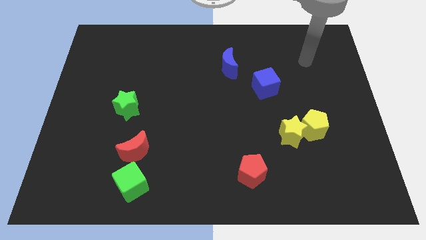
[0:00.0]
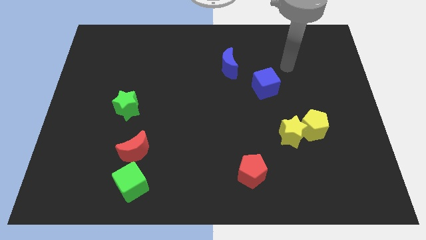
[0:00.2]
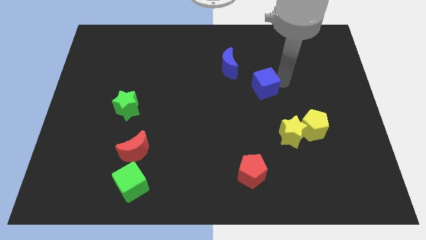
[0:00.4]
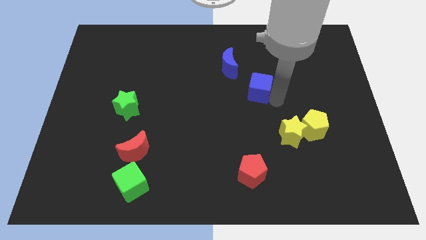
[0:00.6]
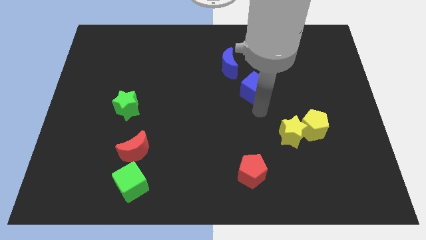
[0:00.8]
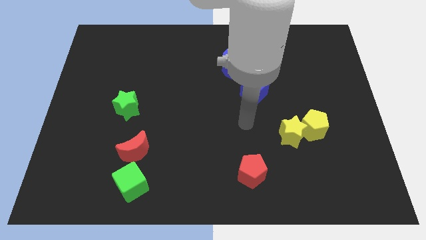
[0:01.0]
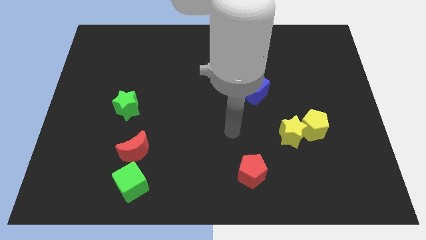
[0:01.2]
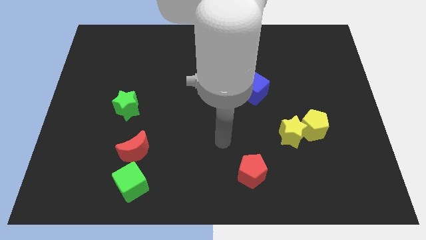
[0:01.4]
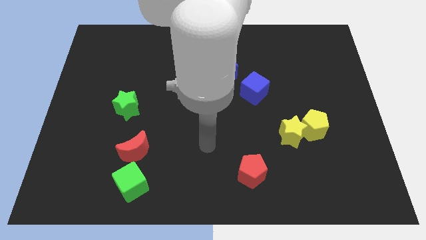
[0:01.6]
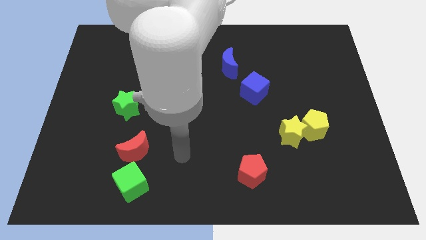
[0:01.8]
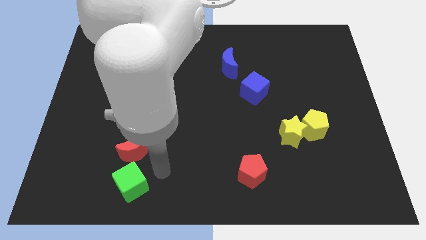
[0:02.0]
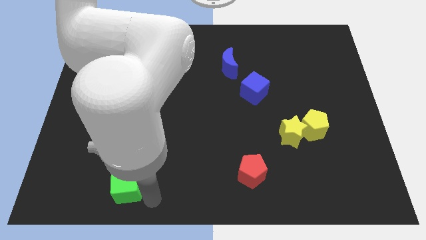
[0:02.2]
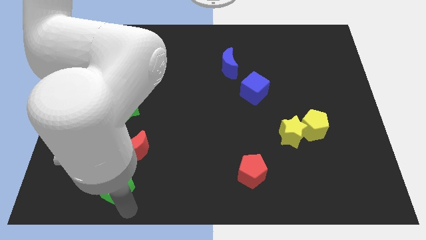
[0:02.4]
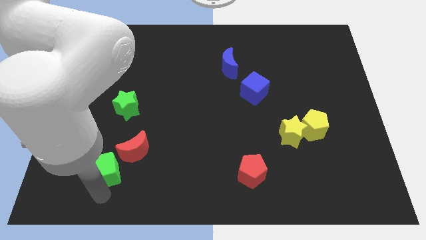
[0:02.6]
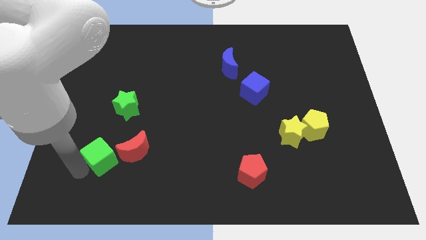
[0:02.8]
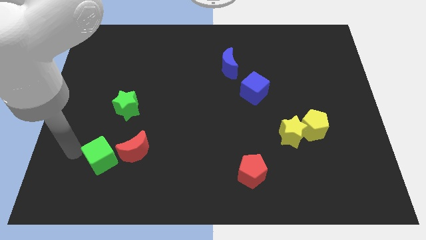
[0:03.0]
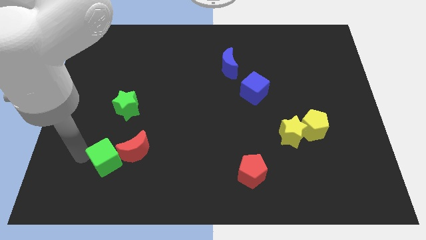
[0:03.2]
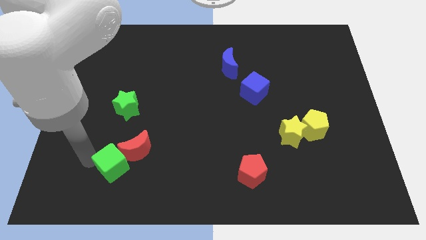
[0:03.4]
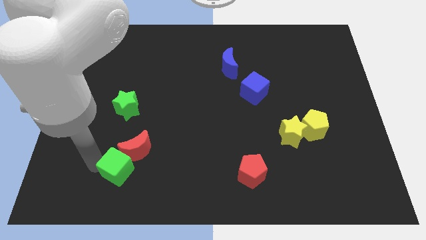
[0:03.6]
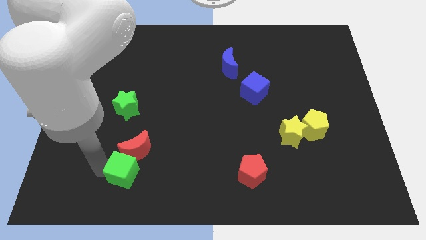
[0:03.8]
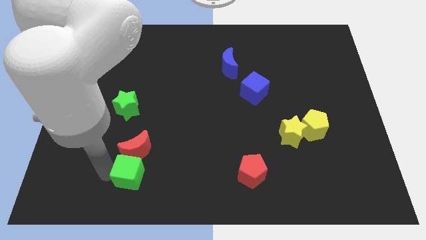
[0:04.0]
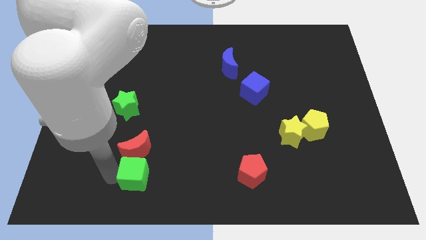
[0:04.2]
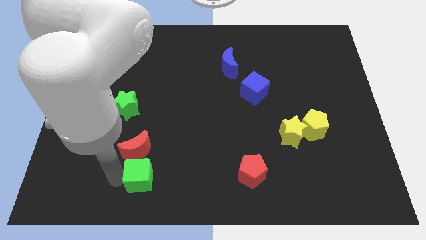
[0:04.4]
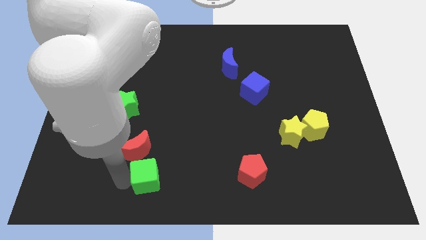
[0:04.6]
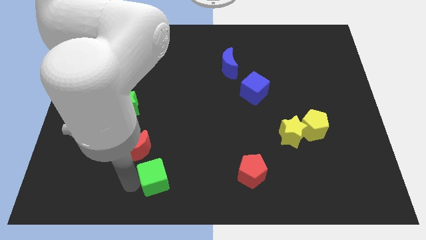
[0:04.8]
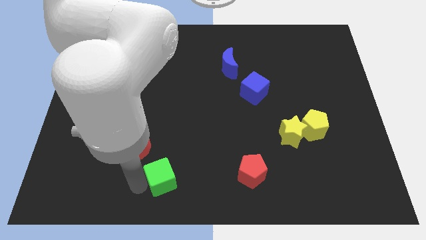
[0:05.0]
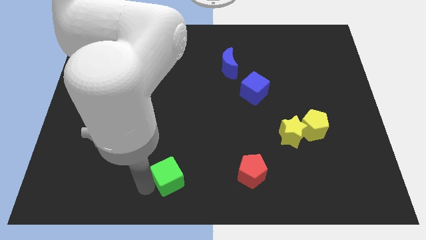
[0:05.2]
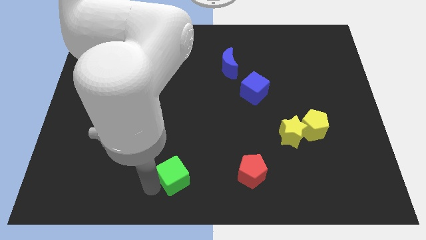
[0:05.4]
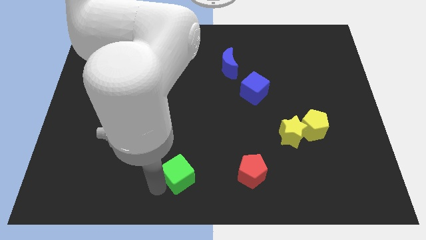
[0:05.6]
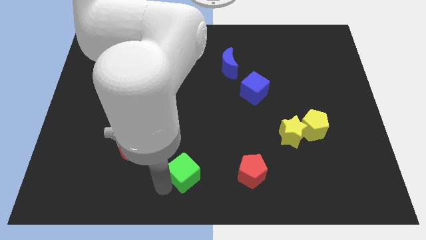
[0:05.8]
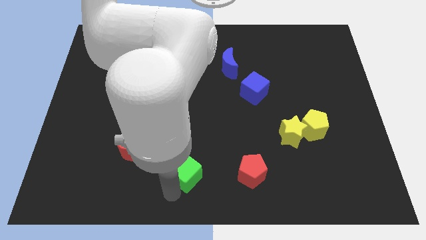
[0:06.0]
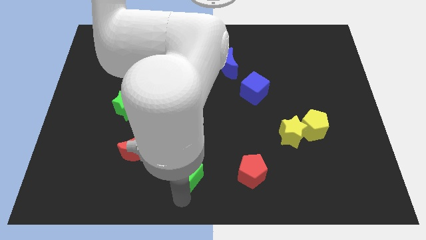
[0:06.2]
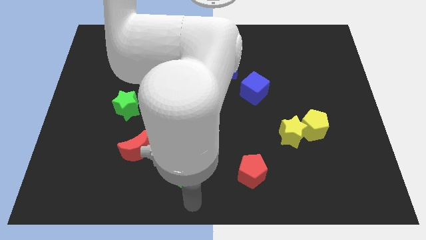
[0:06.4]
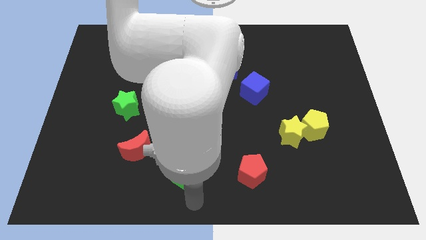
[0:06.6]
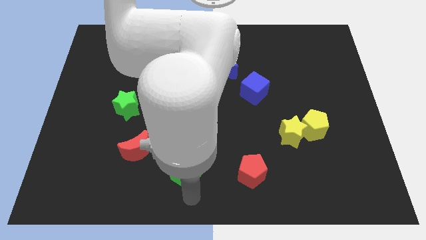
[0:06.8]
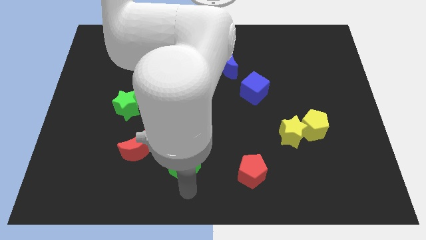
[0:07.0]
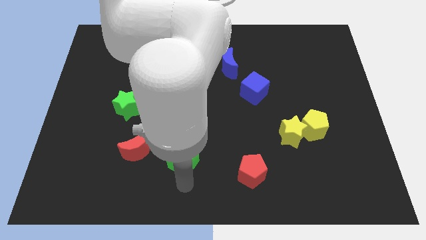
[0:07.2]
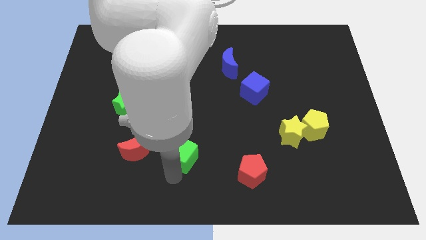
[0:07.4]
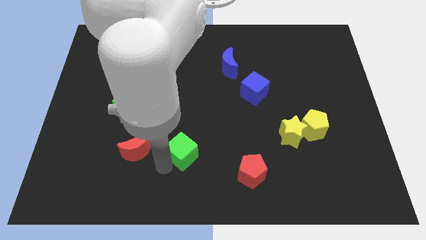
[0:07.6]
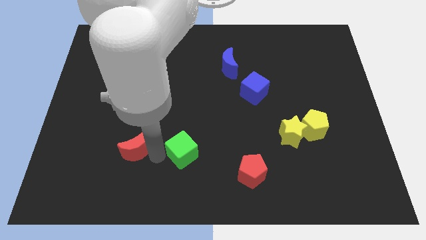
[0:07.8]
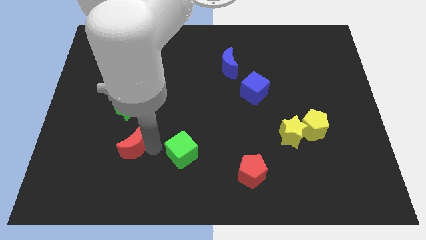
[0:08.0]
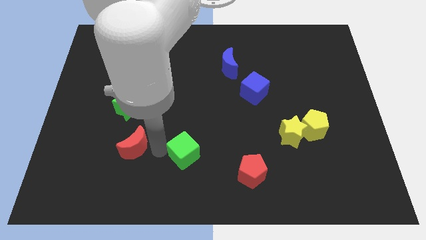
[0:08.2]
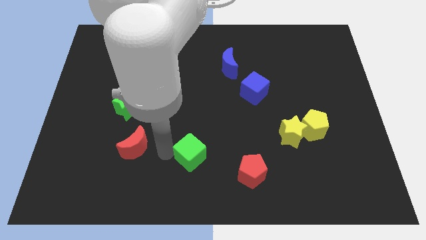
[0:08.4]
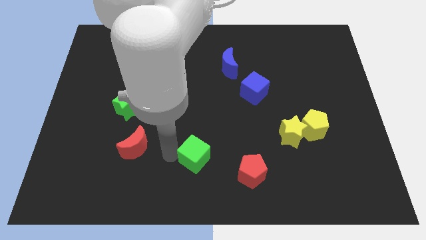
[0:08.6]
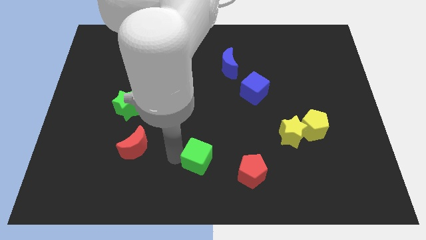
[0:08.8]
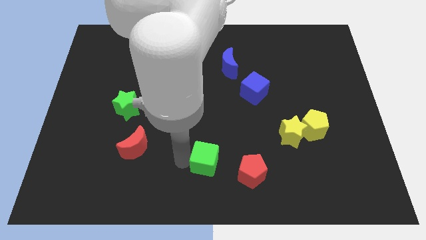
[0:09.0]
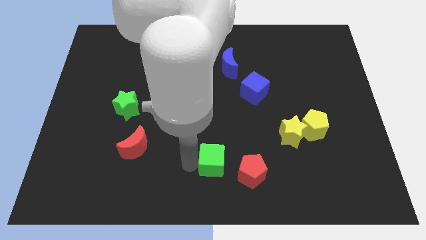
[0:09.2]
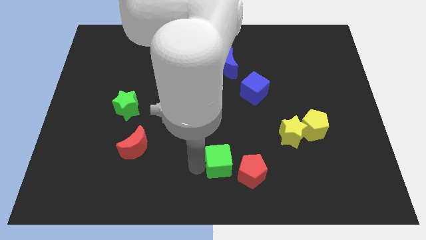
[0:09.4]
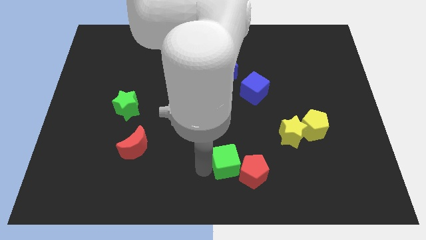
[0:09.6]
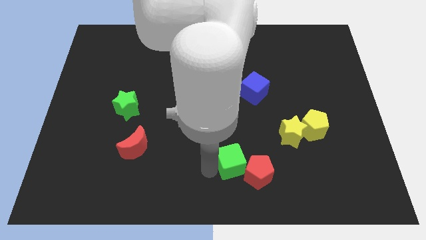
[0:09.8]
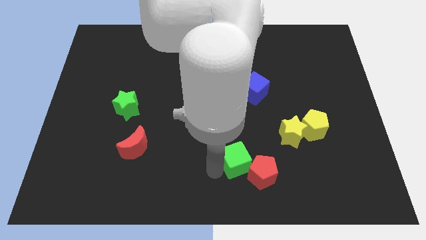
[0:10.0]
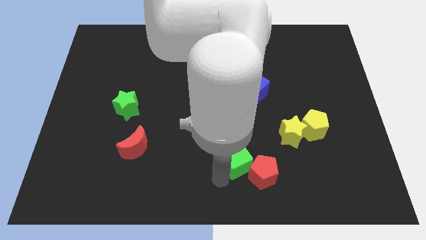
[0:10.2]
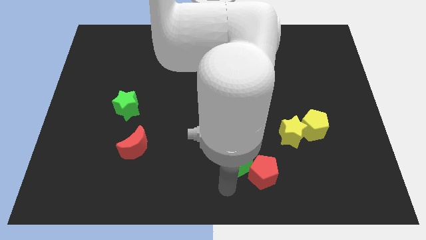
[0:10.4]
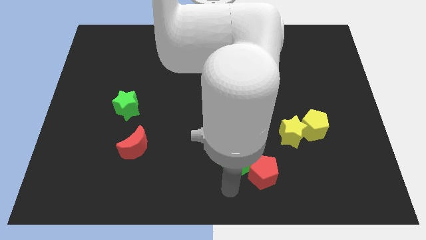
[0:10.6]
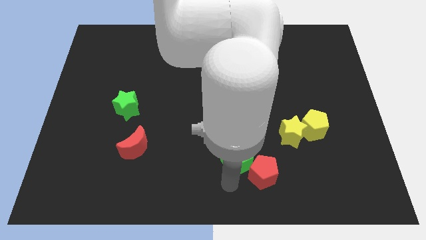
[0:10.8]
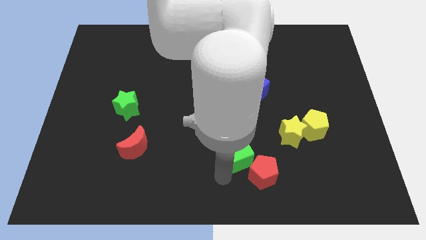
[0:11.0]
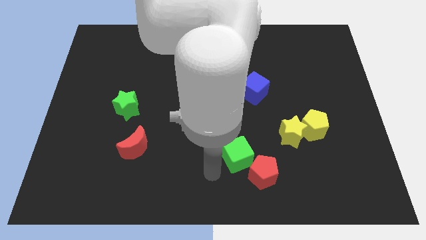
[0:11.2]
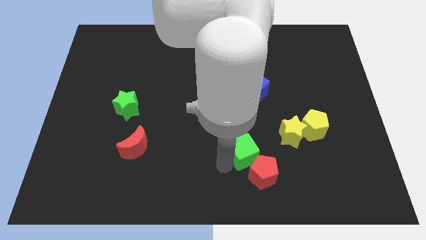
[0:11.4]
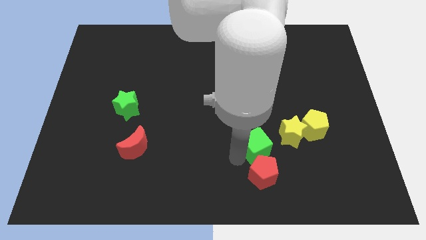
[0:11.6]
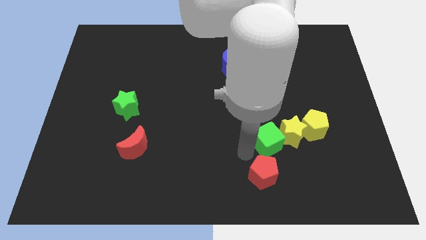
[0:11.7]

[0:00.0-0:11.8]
push the green cube next to the yellow star

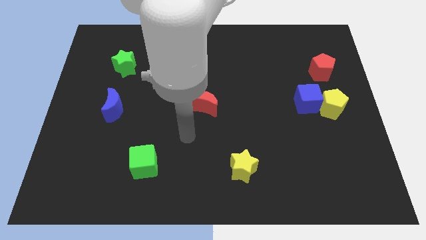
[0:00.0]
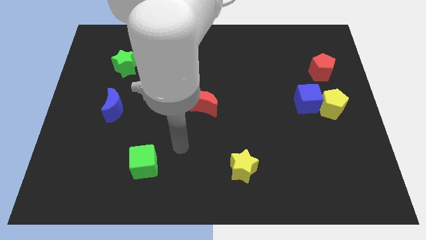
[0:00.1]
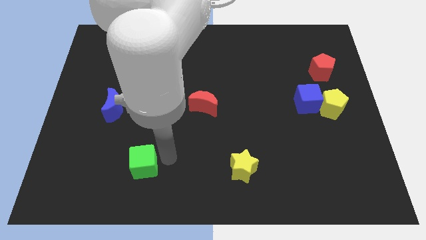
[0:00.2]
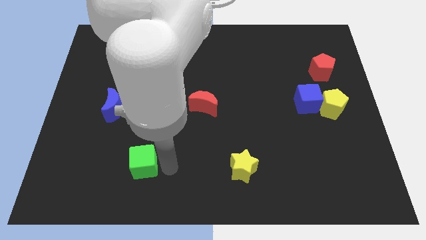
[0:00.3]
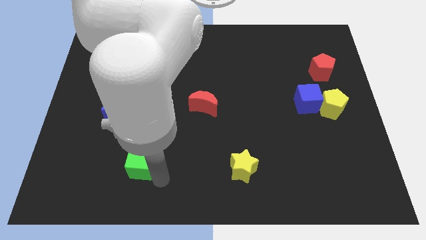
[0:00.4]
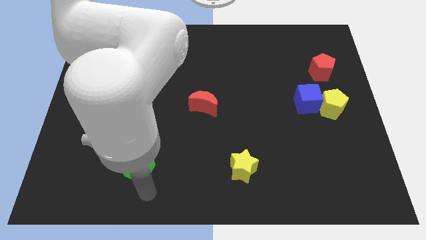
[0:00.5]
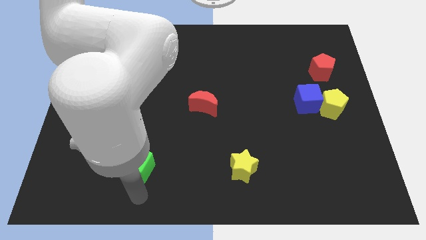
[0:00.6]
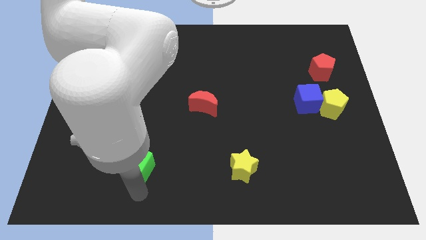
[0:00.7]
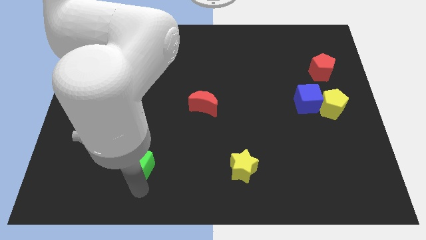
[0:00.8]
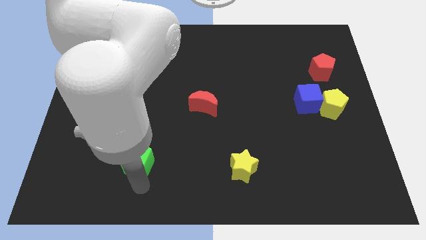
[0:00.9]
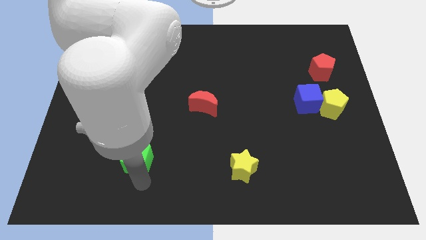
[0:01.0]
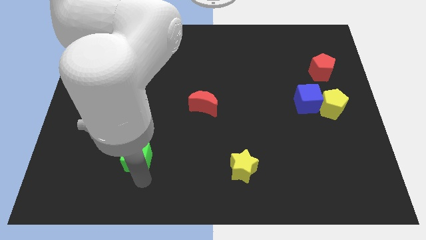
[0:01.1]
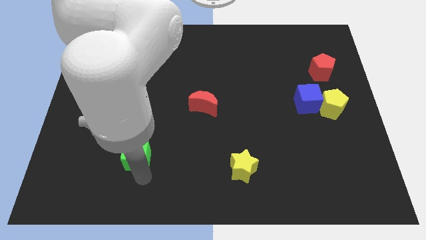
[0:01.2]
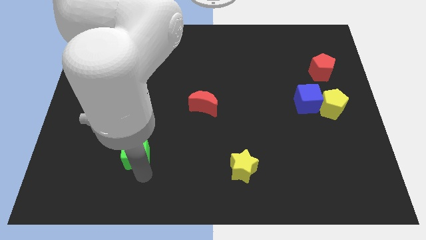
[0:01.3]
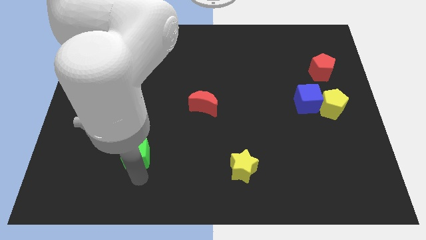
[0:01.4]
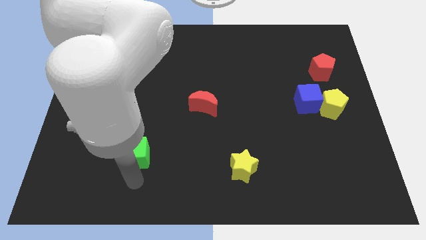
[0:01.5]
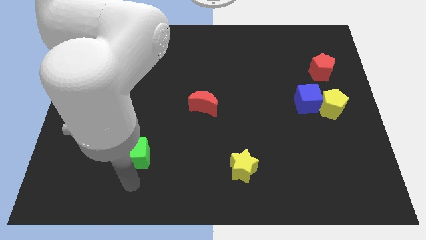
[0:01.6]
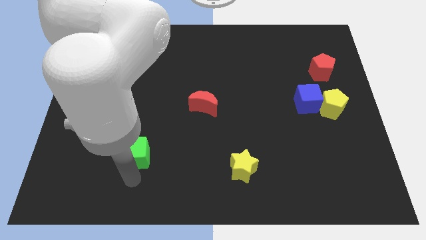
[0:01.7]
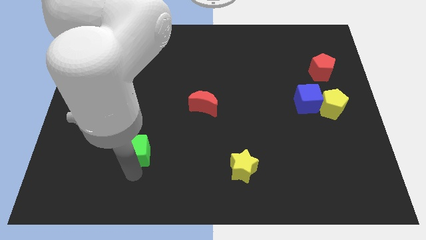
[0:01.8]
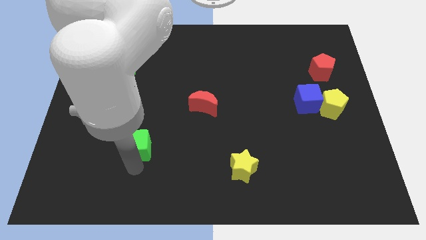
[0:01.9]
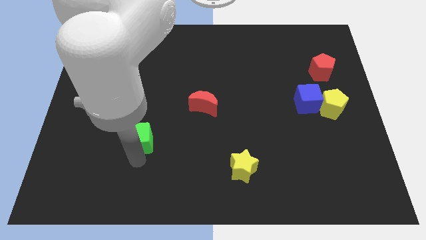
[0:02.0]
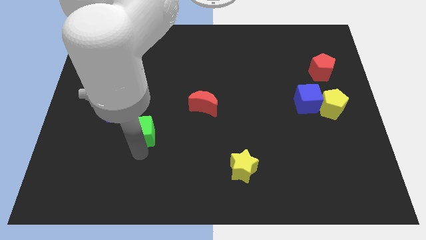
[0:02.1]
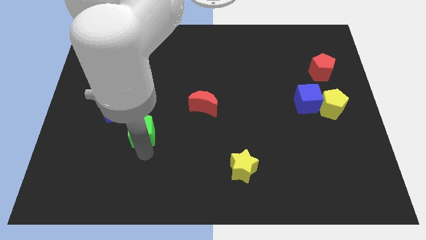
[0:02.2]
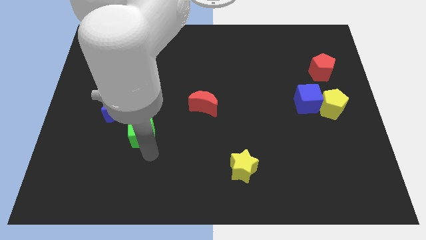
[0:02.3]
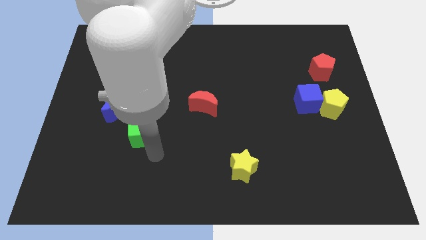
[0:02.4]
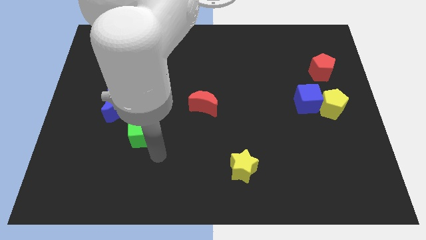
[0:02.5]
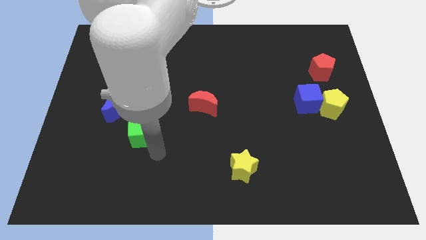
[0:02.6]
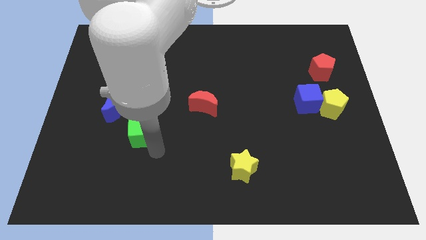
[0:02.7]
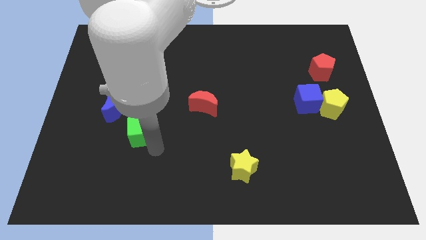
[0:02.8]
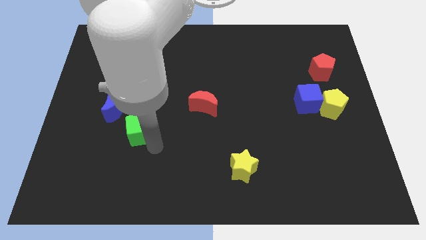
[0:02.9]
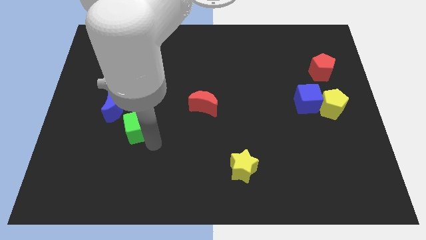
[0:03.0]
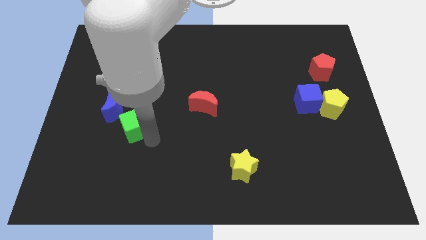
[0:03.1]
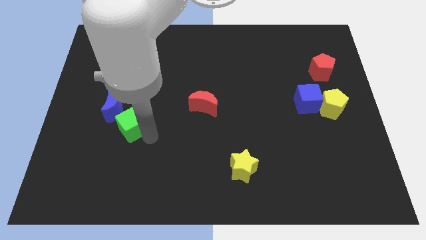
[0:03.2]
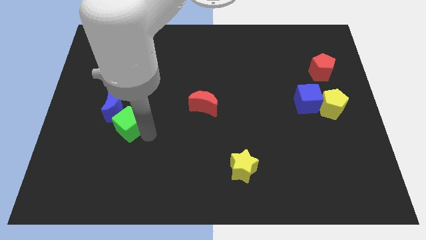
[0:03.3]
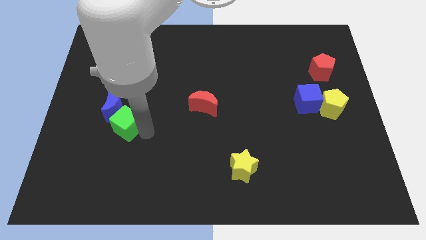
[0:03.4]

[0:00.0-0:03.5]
push the green cube towards the blue moon
